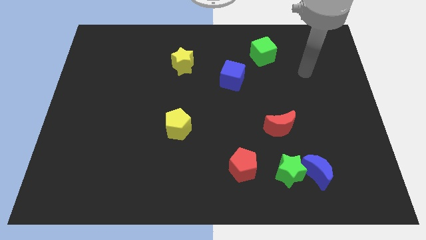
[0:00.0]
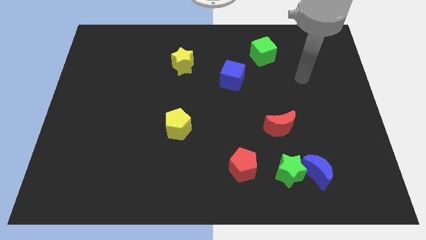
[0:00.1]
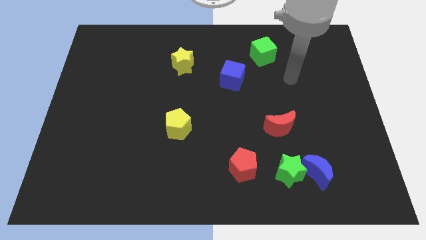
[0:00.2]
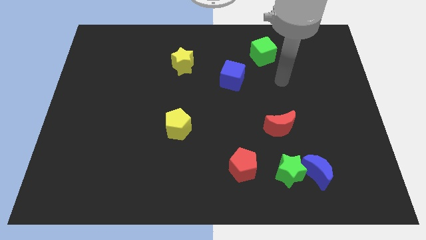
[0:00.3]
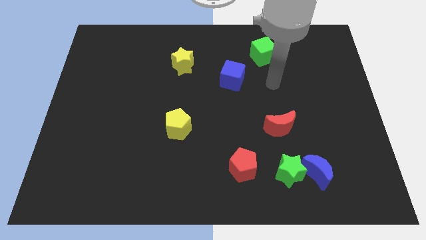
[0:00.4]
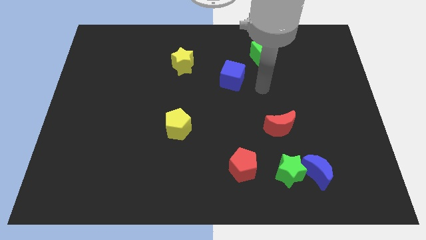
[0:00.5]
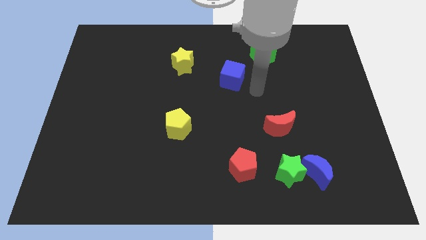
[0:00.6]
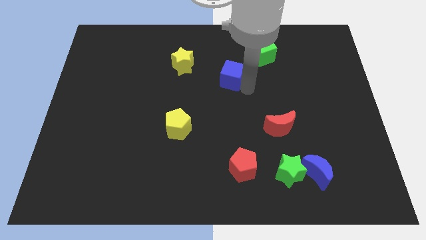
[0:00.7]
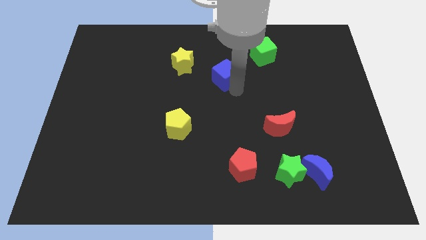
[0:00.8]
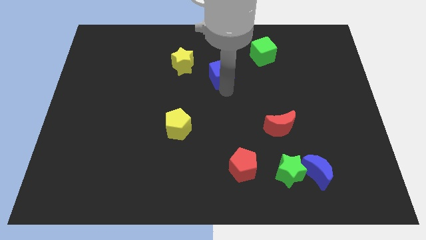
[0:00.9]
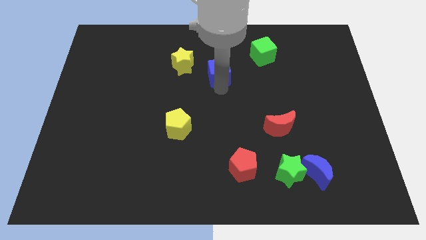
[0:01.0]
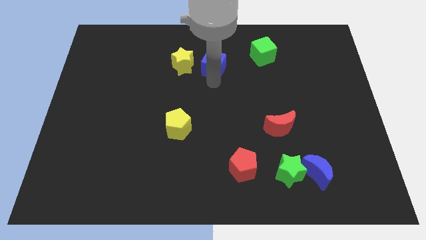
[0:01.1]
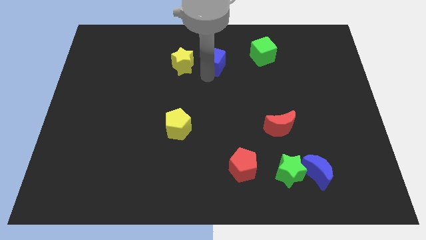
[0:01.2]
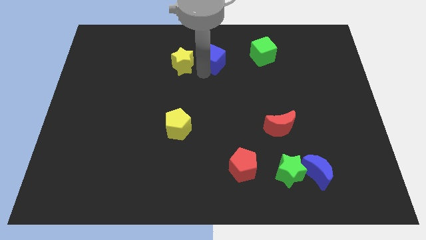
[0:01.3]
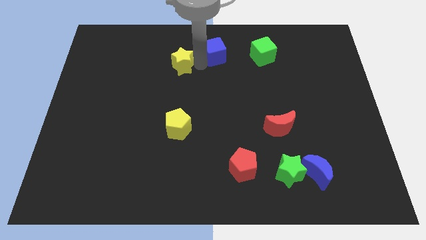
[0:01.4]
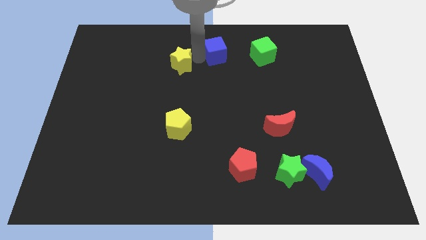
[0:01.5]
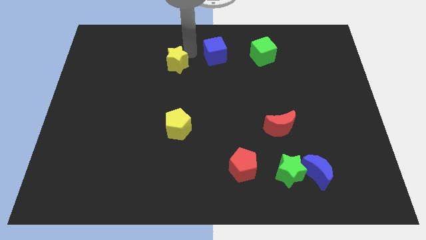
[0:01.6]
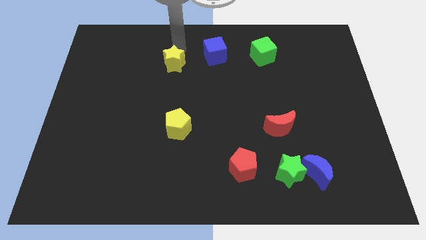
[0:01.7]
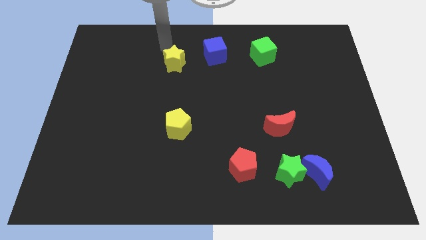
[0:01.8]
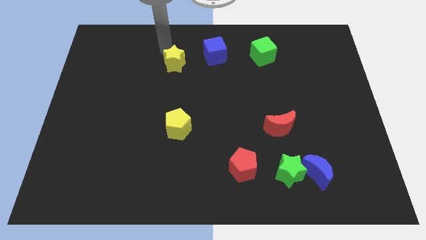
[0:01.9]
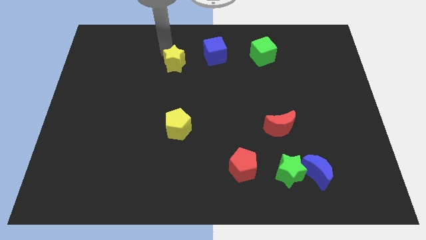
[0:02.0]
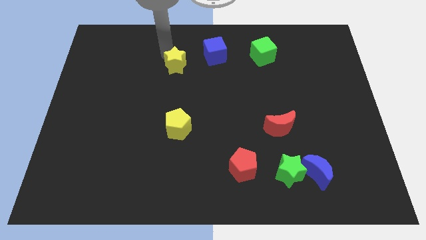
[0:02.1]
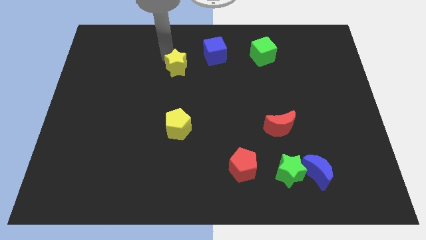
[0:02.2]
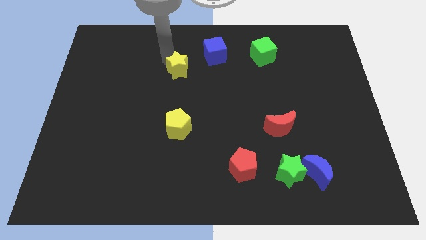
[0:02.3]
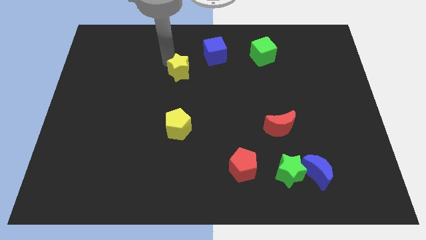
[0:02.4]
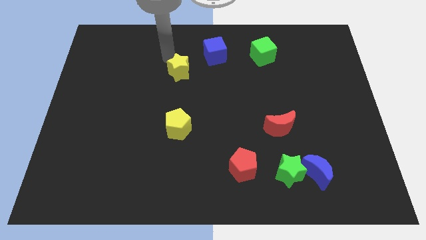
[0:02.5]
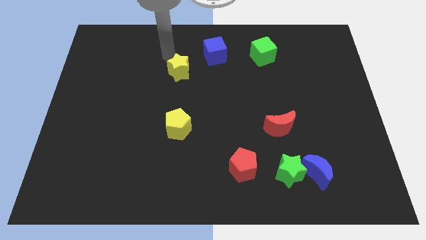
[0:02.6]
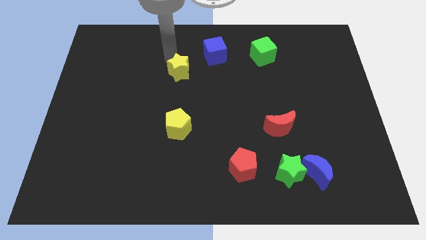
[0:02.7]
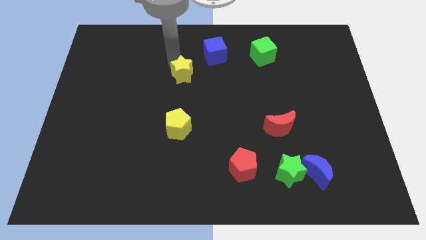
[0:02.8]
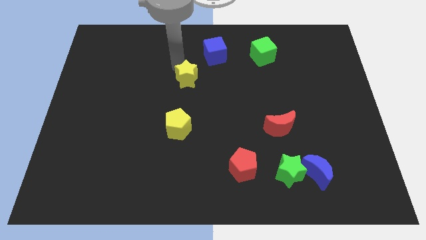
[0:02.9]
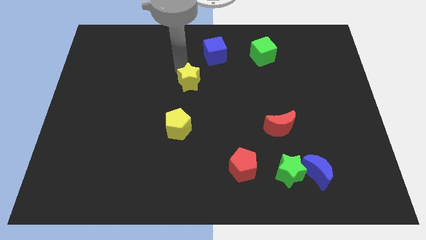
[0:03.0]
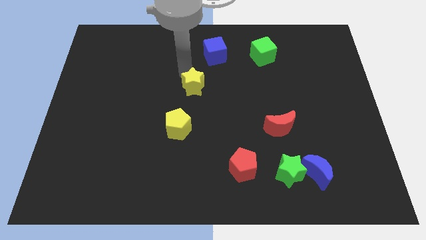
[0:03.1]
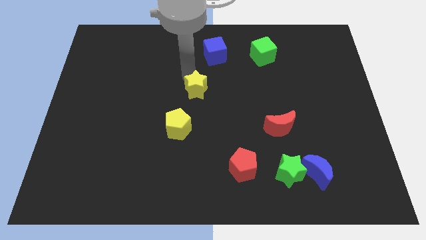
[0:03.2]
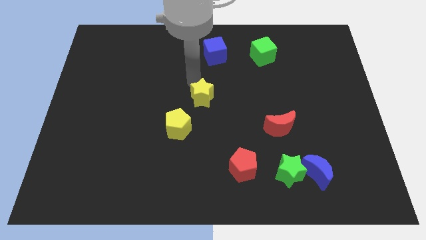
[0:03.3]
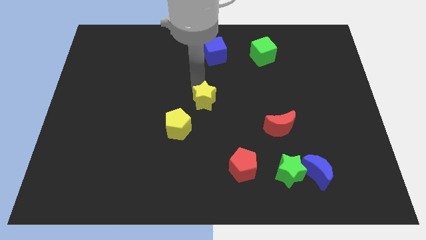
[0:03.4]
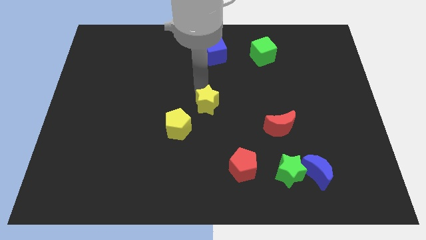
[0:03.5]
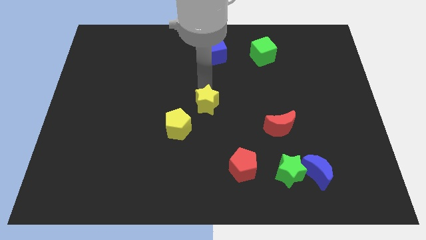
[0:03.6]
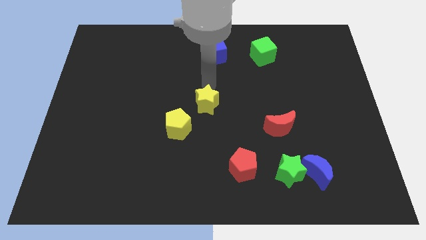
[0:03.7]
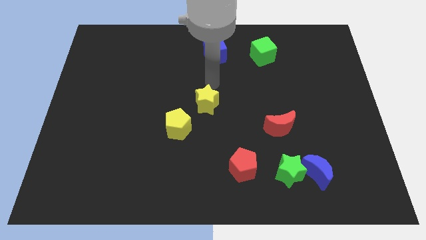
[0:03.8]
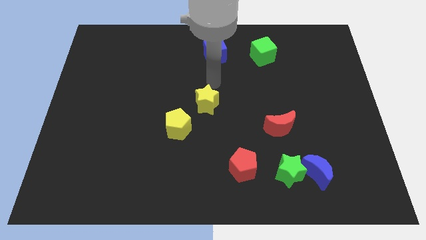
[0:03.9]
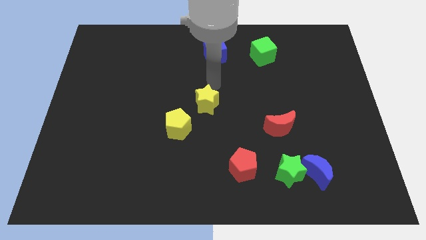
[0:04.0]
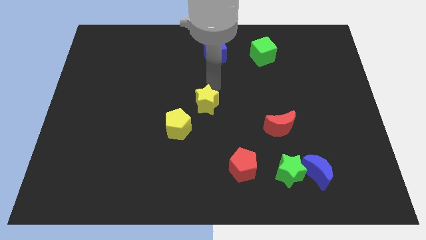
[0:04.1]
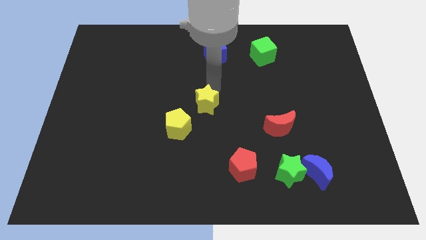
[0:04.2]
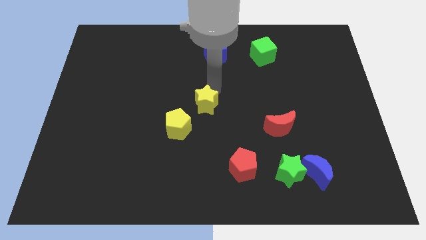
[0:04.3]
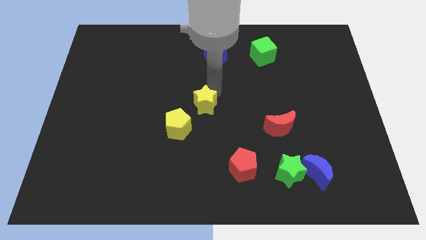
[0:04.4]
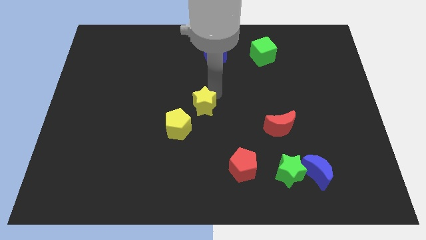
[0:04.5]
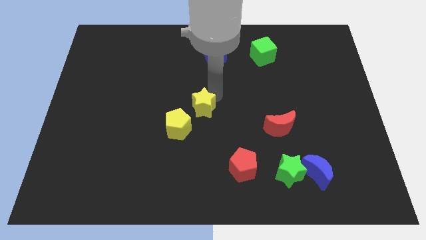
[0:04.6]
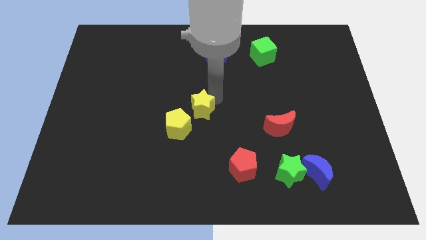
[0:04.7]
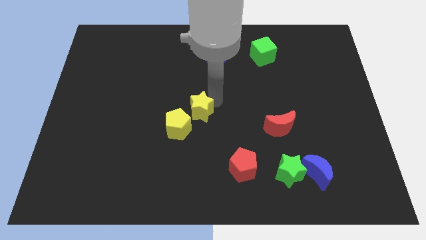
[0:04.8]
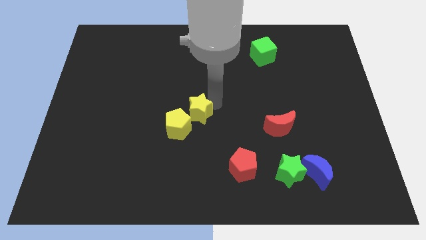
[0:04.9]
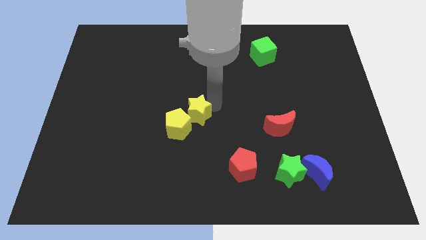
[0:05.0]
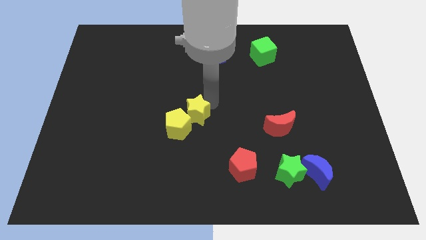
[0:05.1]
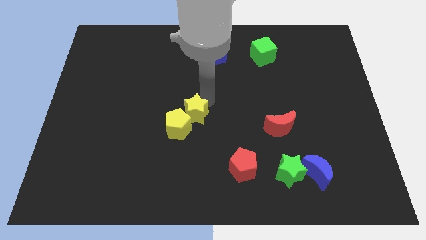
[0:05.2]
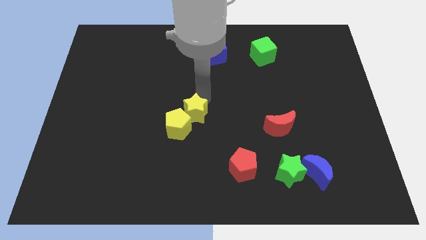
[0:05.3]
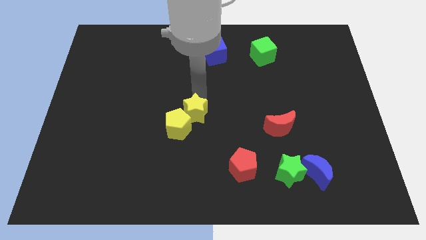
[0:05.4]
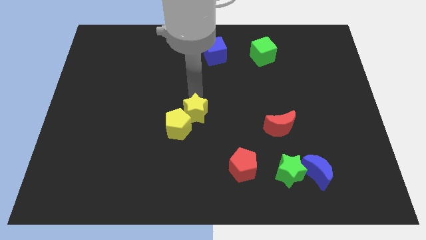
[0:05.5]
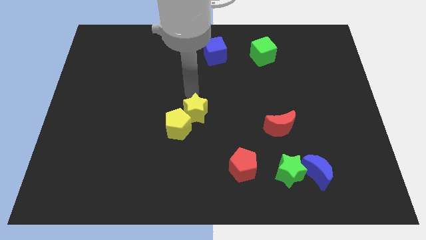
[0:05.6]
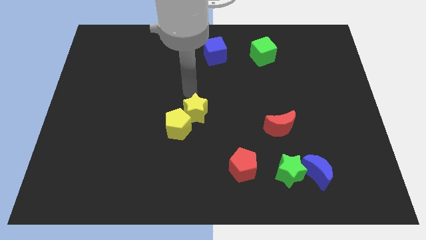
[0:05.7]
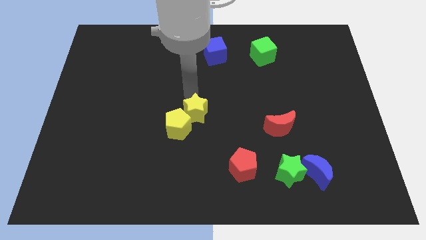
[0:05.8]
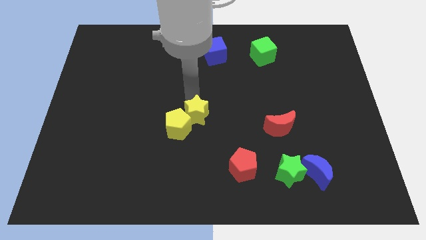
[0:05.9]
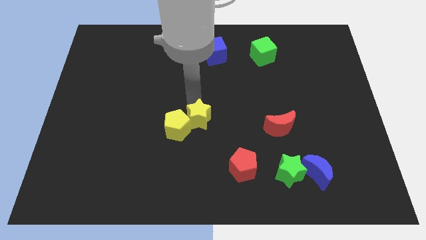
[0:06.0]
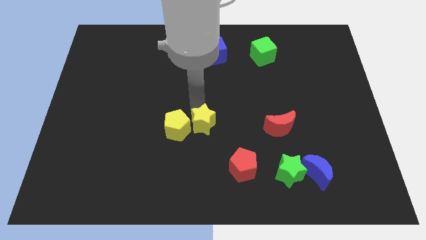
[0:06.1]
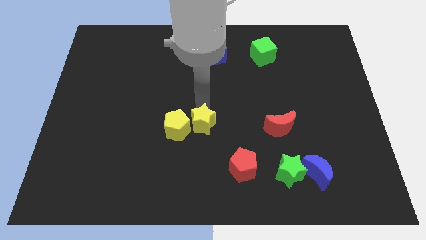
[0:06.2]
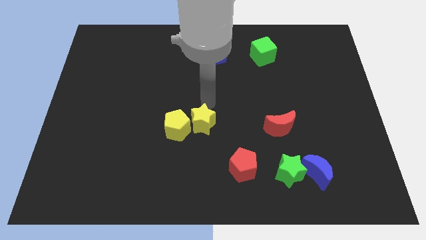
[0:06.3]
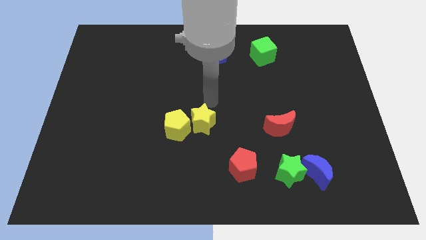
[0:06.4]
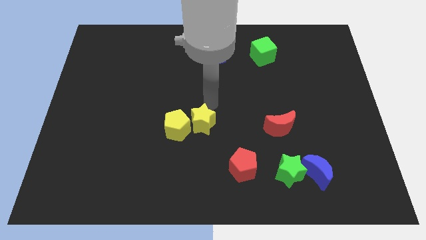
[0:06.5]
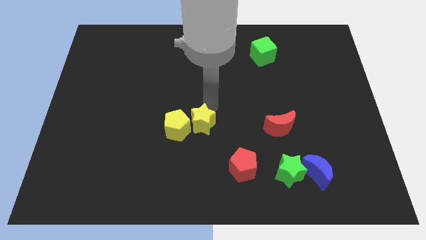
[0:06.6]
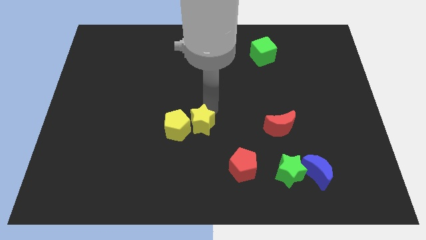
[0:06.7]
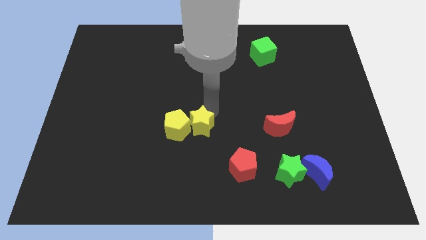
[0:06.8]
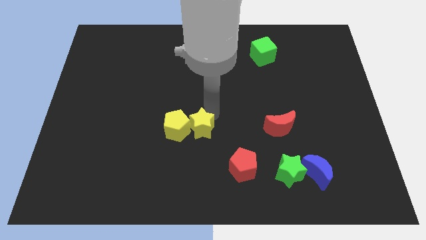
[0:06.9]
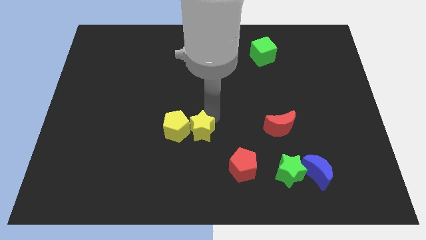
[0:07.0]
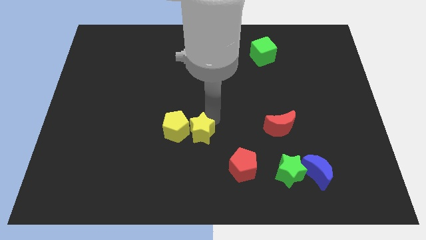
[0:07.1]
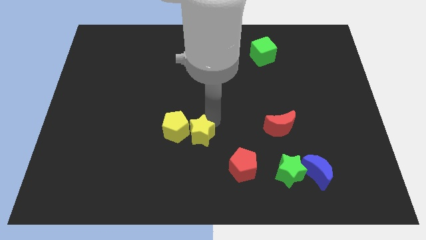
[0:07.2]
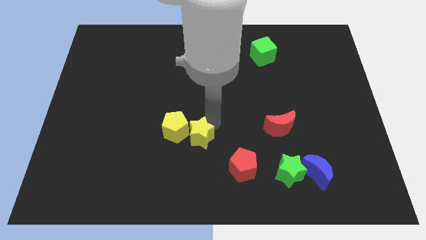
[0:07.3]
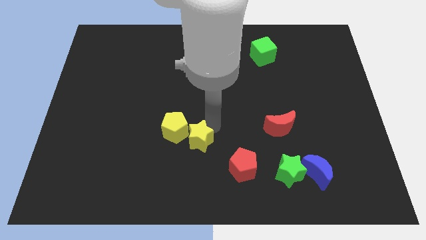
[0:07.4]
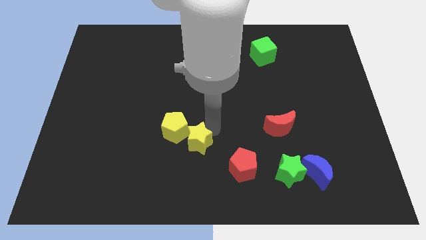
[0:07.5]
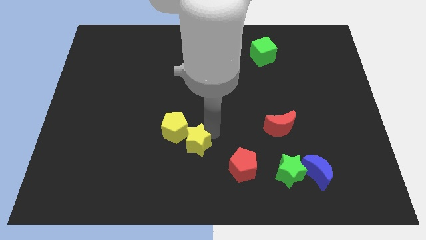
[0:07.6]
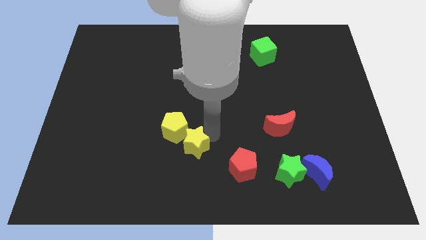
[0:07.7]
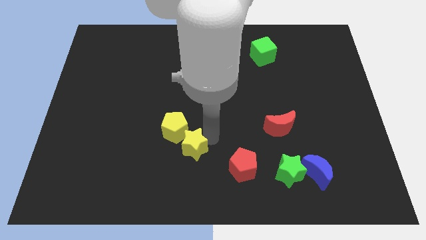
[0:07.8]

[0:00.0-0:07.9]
push the yellow star left of the red pentagon
